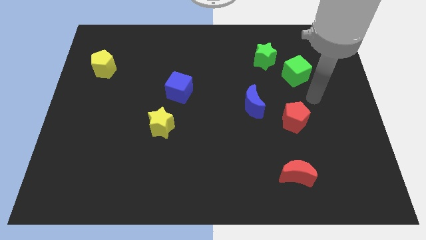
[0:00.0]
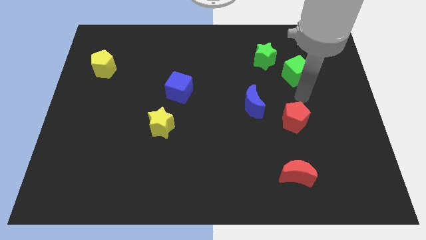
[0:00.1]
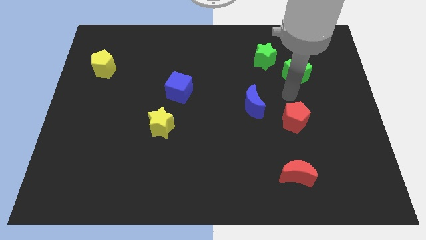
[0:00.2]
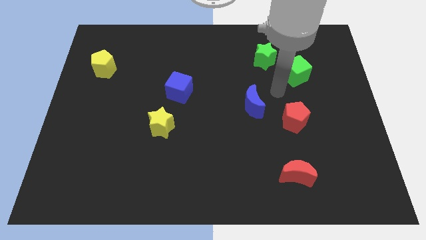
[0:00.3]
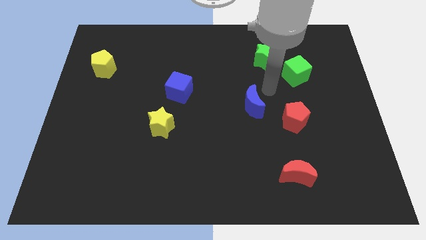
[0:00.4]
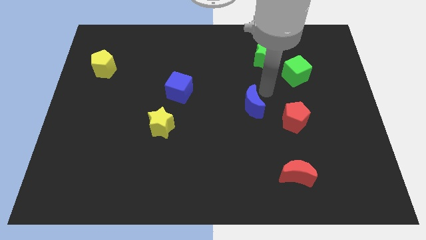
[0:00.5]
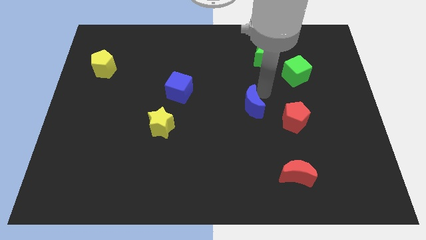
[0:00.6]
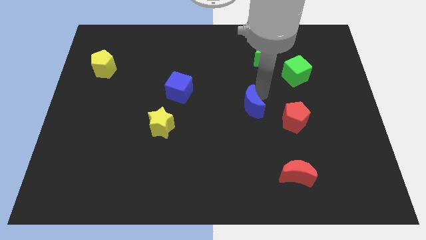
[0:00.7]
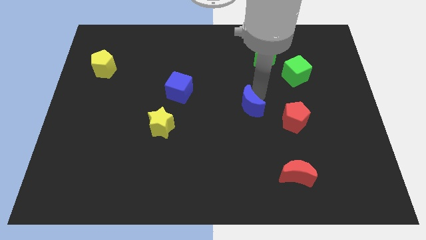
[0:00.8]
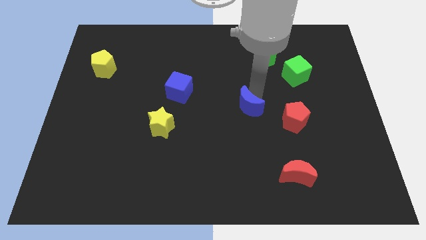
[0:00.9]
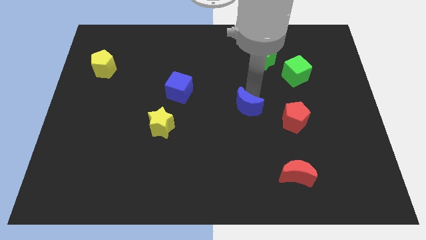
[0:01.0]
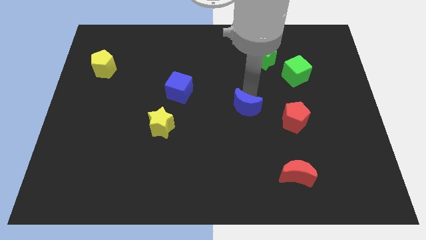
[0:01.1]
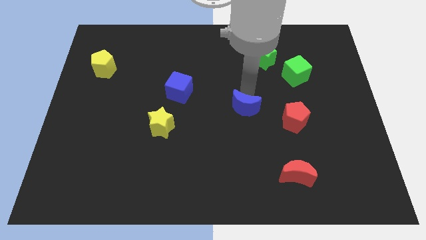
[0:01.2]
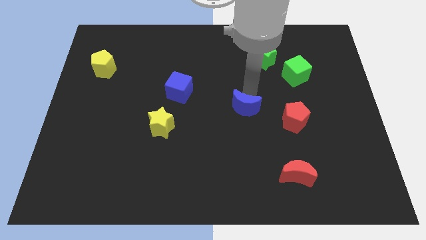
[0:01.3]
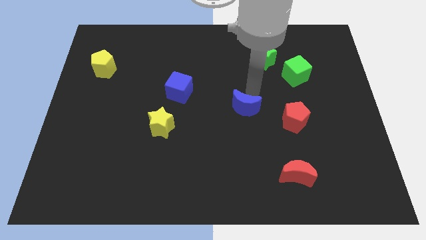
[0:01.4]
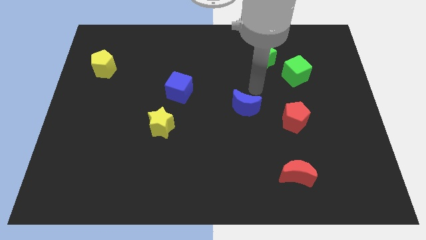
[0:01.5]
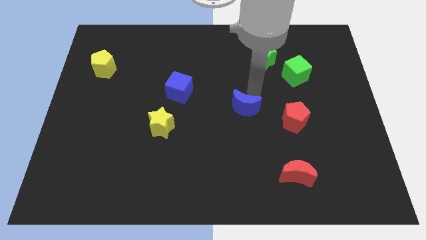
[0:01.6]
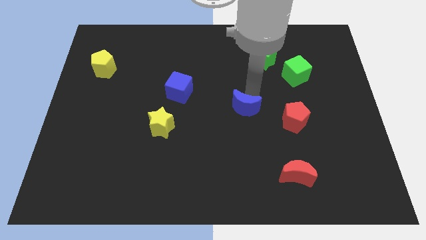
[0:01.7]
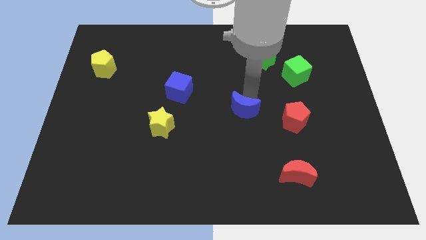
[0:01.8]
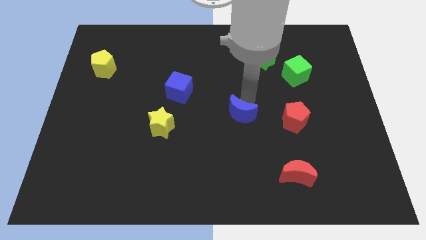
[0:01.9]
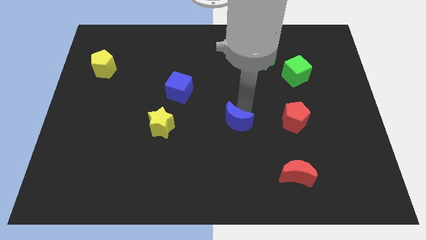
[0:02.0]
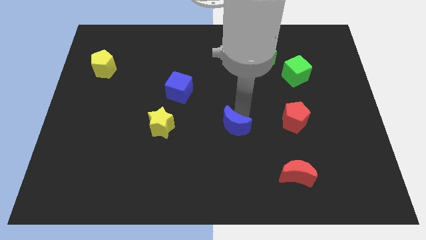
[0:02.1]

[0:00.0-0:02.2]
slide the blue moon somewhat downwards and to the left

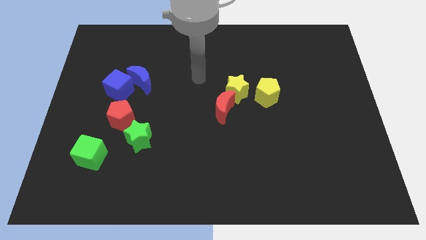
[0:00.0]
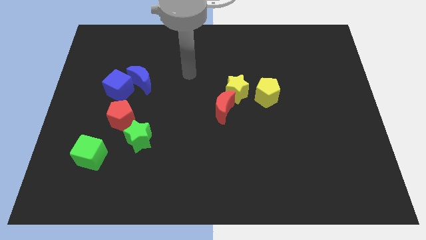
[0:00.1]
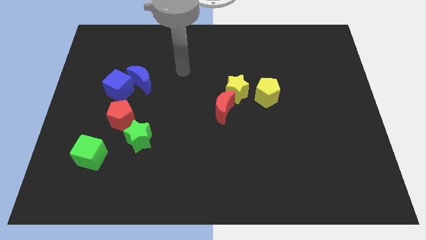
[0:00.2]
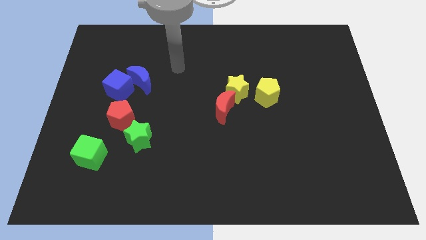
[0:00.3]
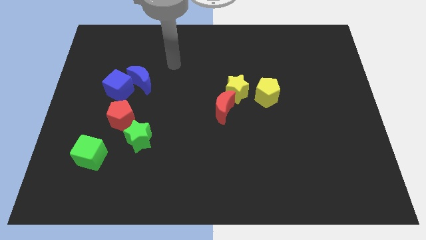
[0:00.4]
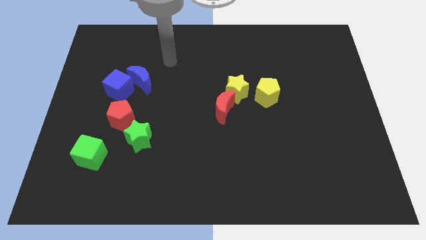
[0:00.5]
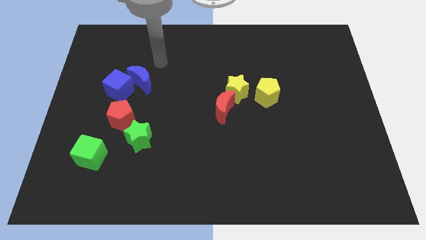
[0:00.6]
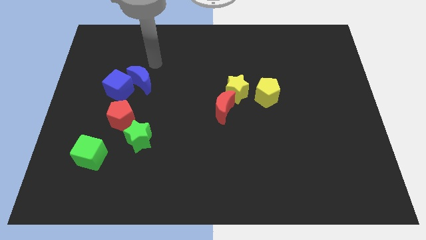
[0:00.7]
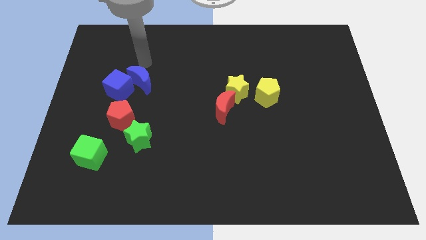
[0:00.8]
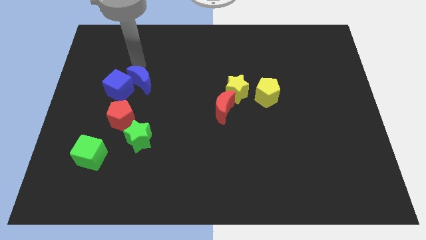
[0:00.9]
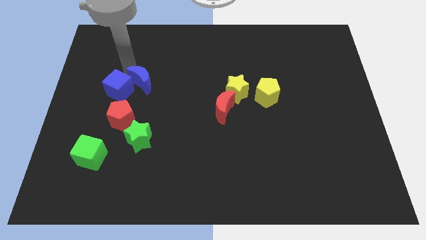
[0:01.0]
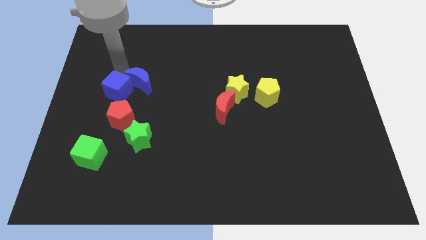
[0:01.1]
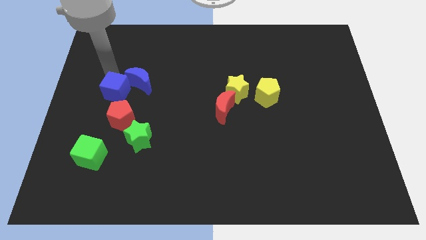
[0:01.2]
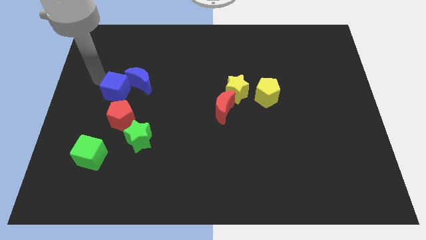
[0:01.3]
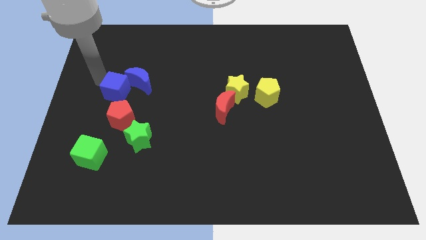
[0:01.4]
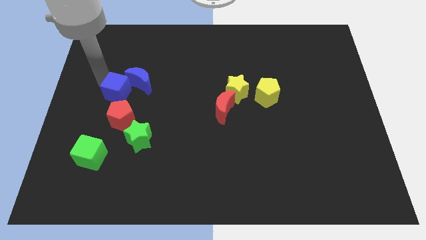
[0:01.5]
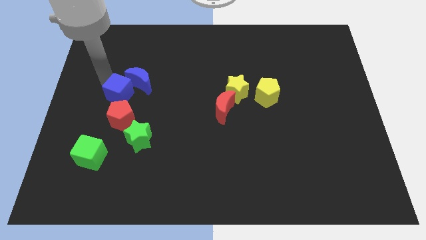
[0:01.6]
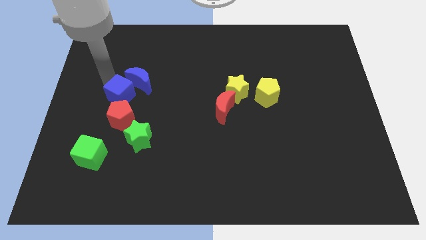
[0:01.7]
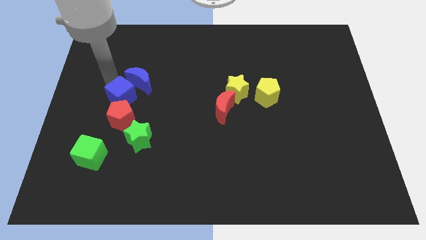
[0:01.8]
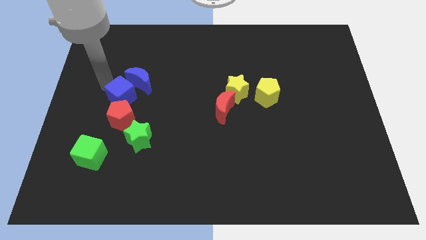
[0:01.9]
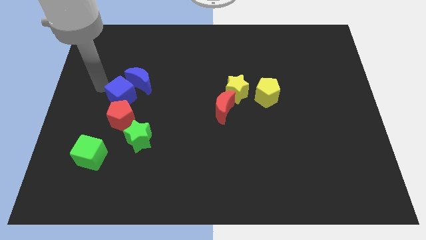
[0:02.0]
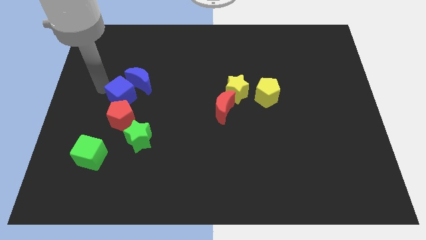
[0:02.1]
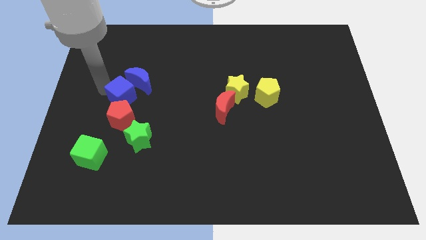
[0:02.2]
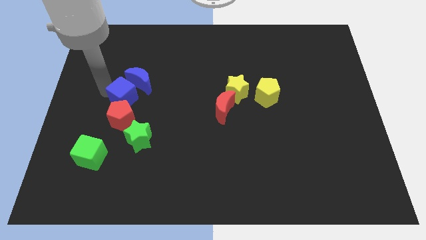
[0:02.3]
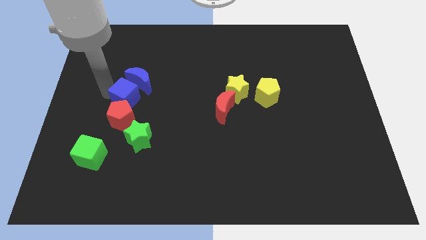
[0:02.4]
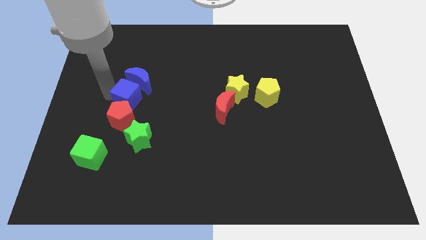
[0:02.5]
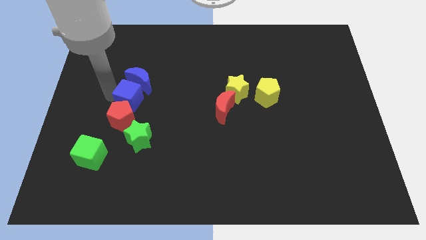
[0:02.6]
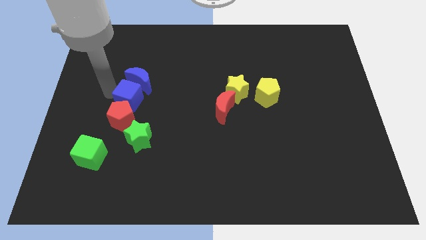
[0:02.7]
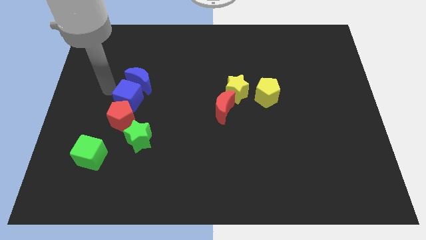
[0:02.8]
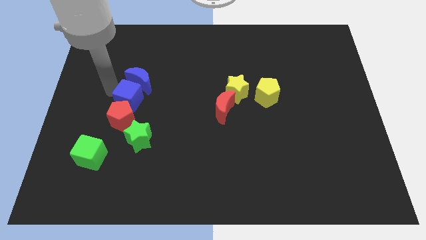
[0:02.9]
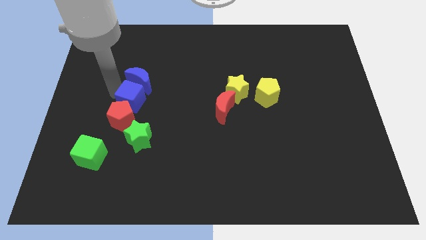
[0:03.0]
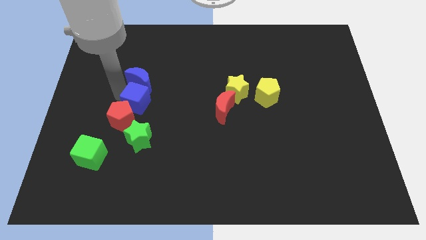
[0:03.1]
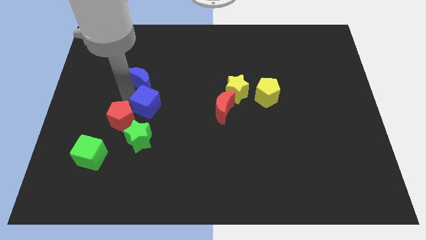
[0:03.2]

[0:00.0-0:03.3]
slightly push the blue cube downwards and to the right

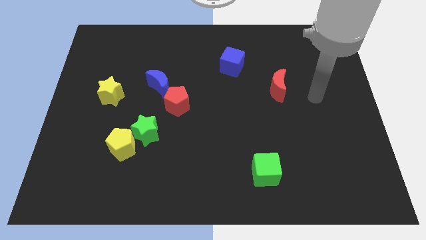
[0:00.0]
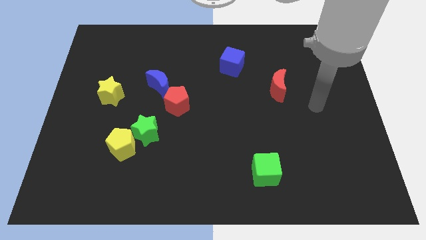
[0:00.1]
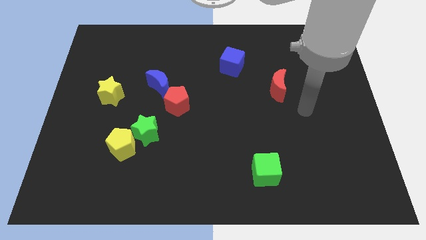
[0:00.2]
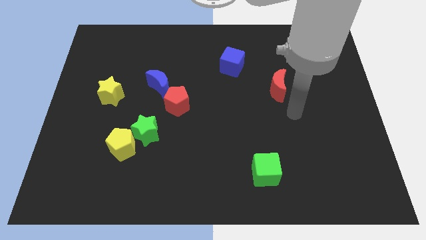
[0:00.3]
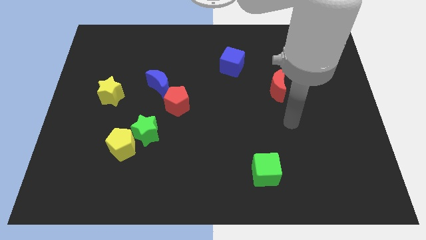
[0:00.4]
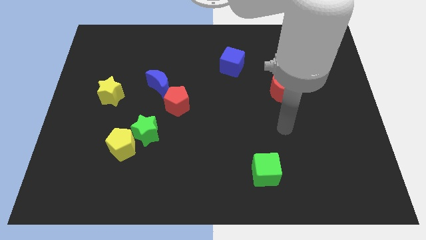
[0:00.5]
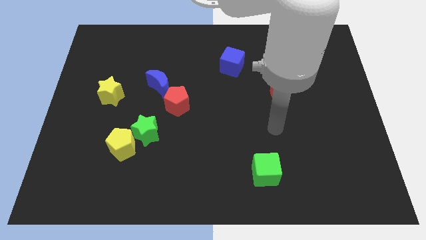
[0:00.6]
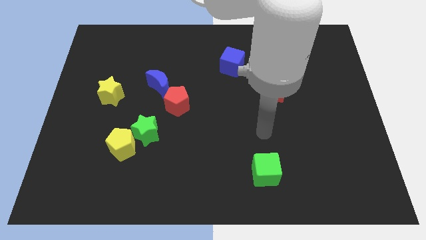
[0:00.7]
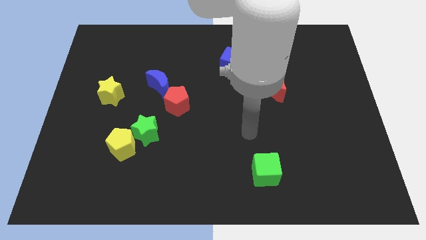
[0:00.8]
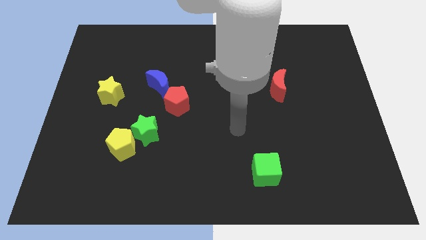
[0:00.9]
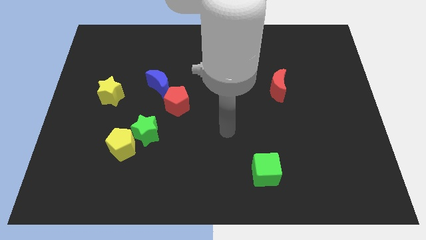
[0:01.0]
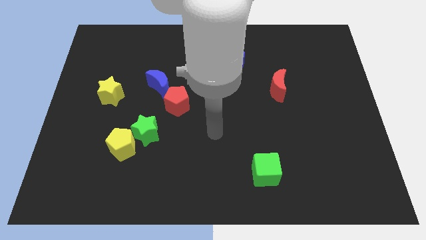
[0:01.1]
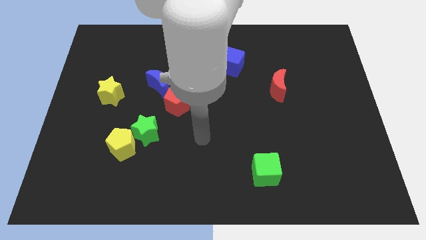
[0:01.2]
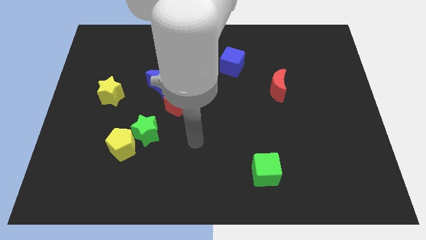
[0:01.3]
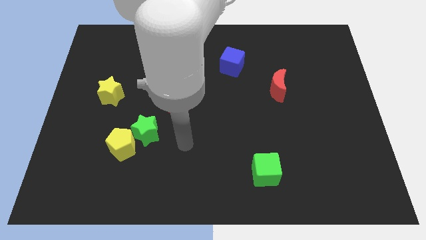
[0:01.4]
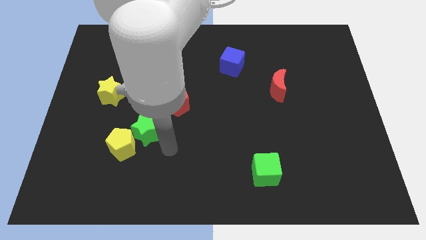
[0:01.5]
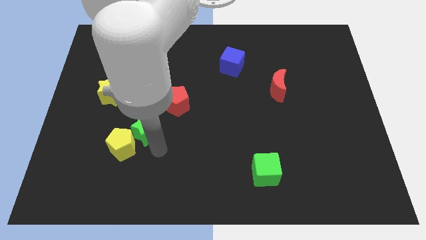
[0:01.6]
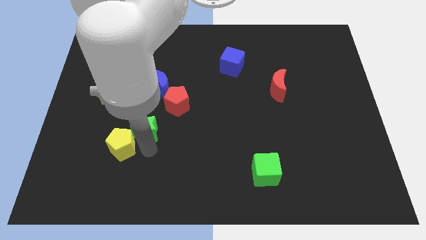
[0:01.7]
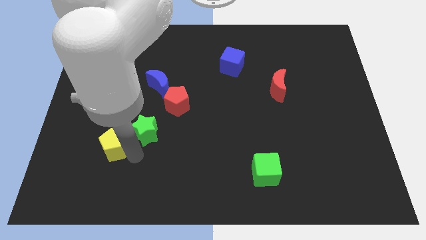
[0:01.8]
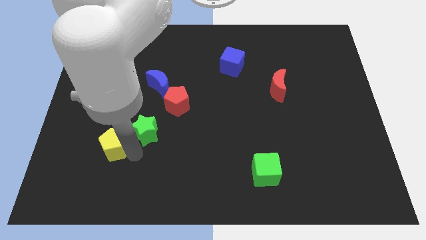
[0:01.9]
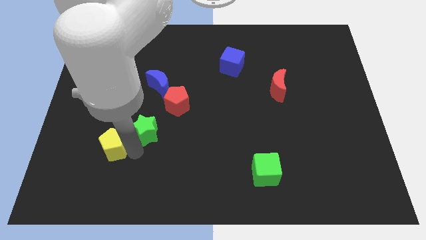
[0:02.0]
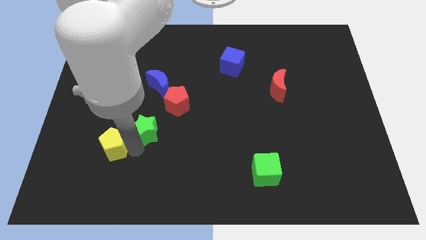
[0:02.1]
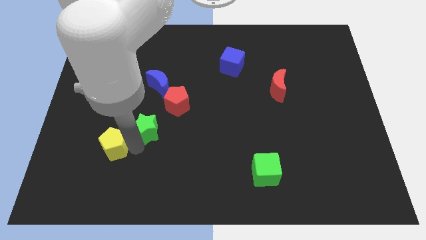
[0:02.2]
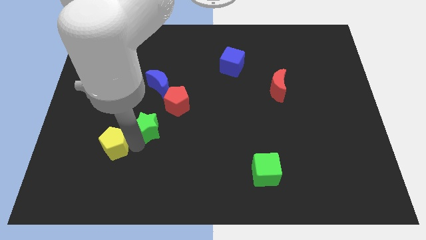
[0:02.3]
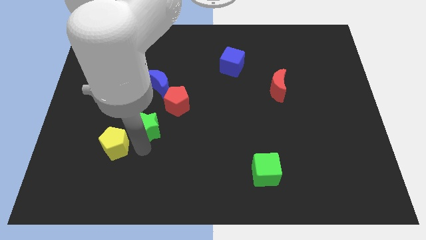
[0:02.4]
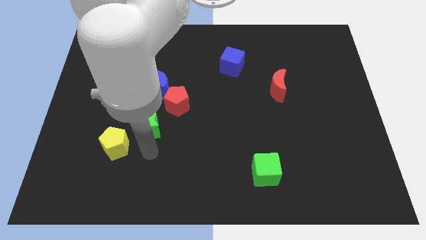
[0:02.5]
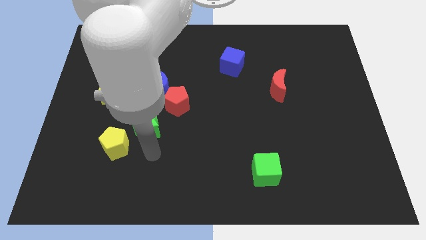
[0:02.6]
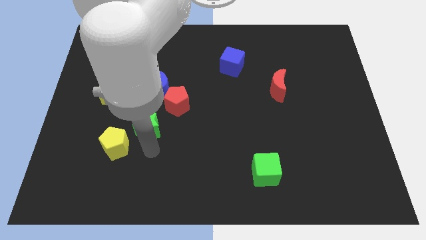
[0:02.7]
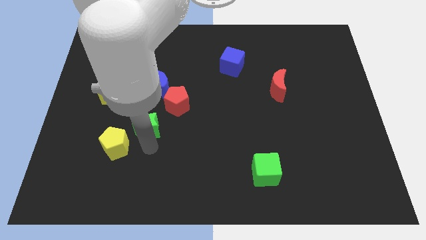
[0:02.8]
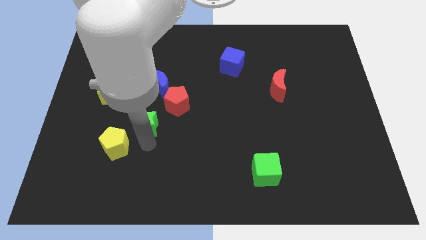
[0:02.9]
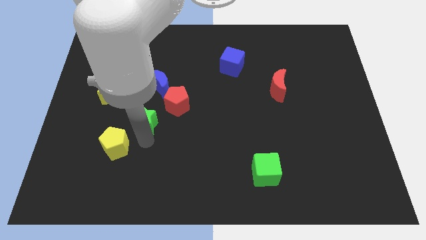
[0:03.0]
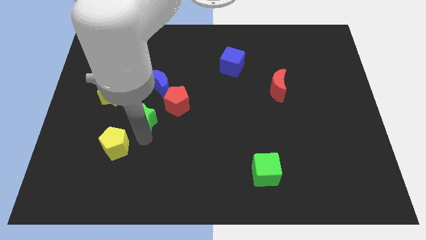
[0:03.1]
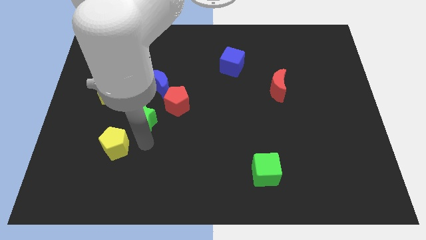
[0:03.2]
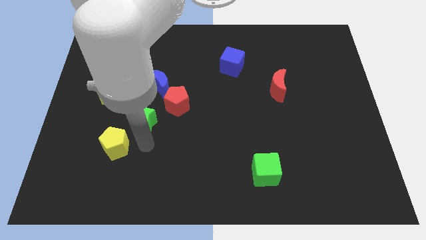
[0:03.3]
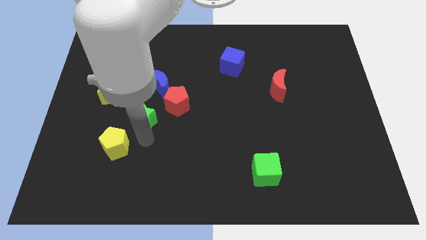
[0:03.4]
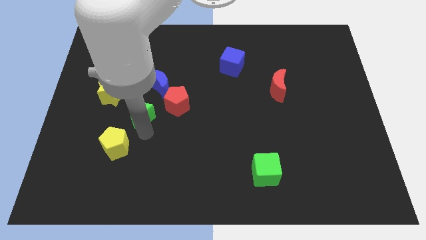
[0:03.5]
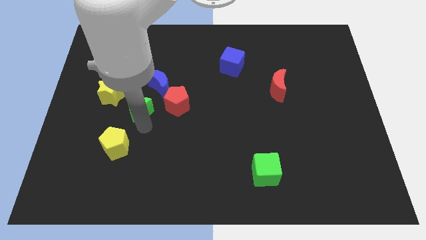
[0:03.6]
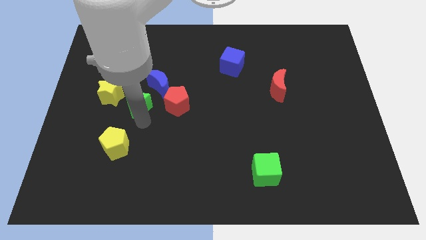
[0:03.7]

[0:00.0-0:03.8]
push the green star upwards a little bit
